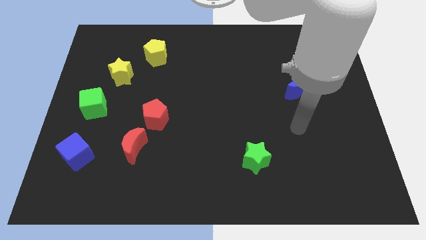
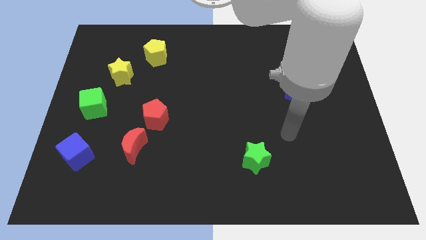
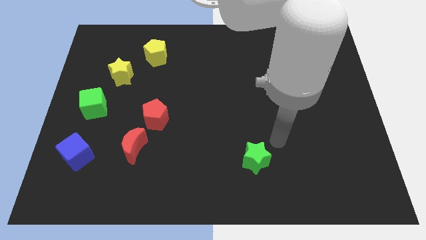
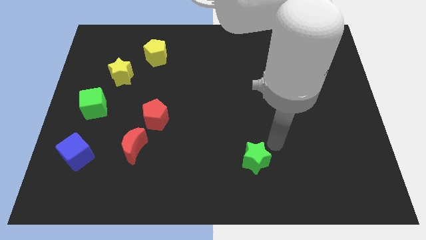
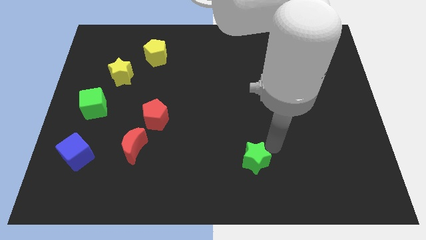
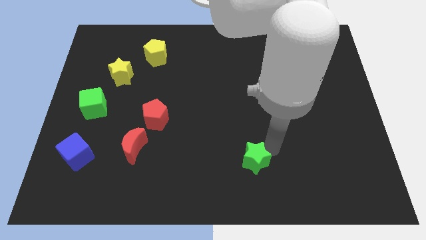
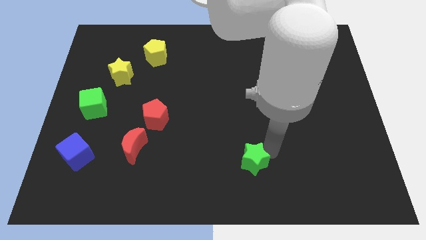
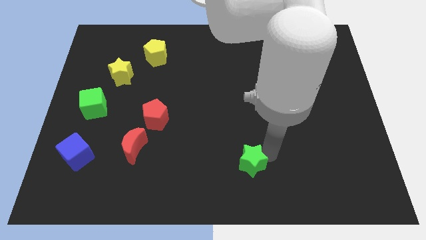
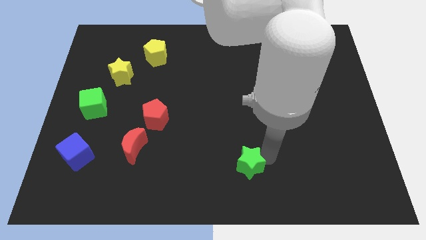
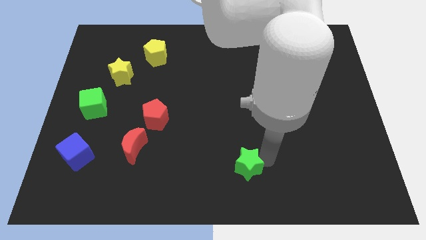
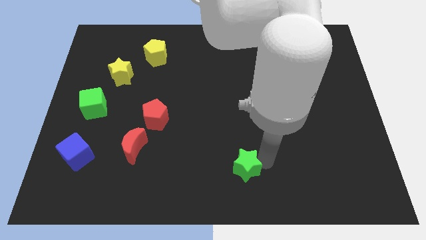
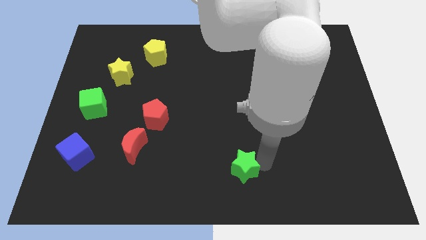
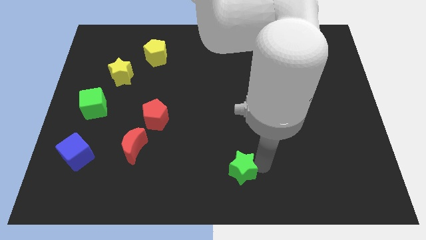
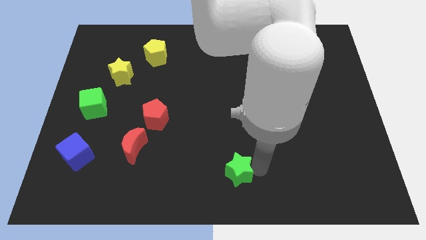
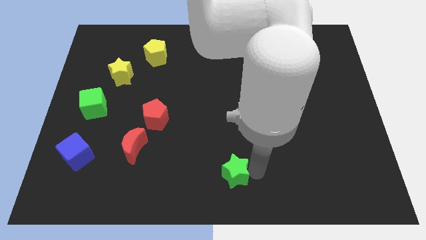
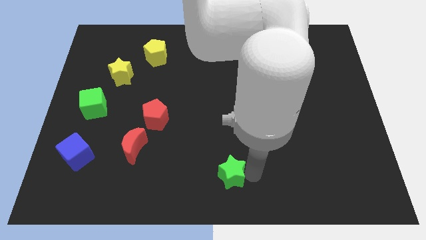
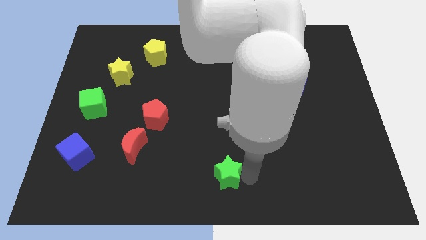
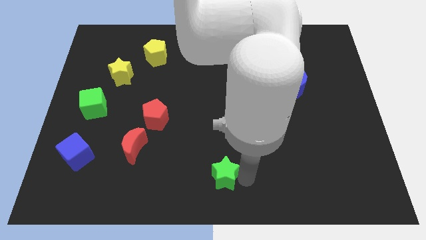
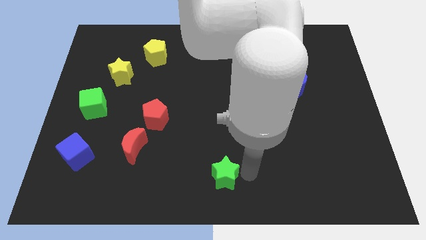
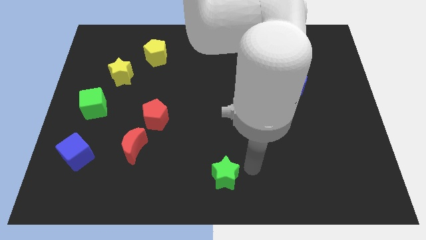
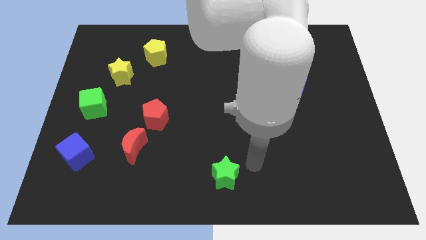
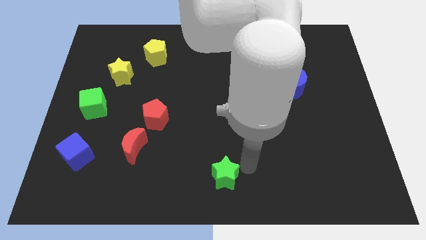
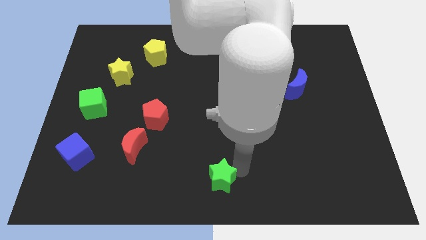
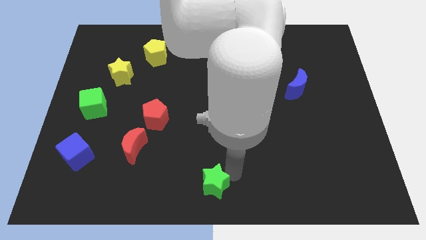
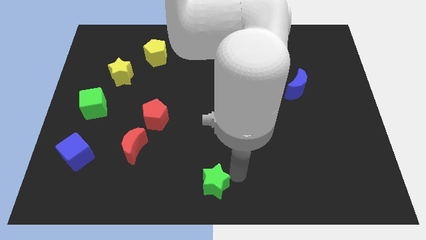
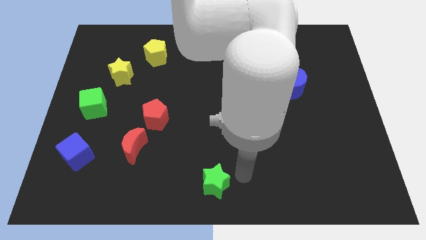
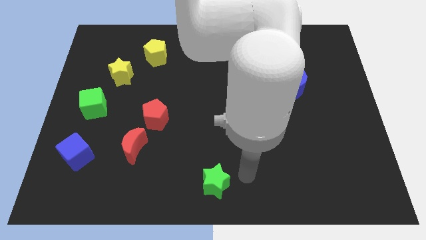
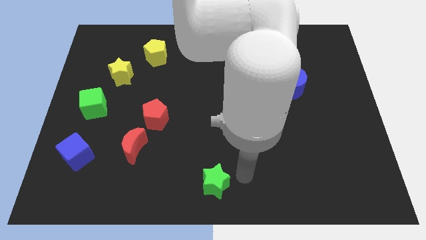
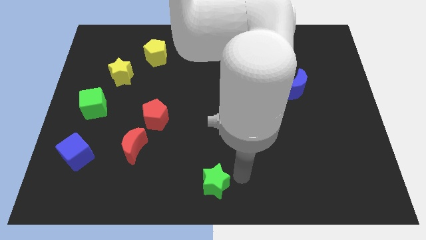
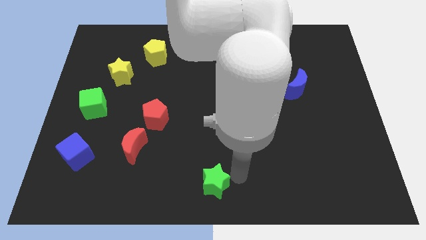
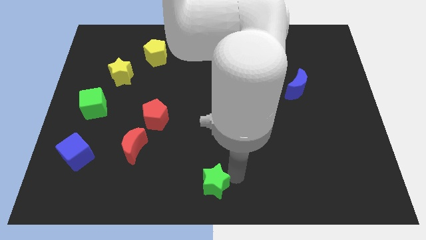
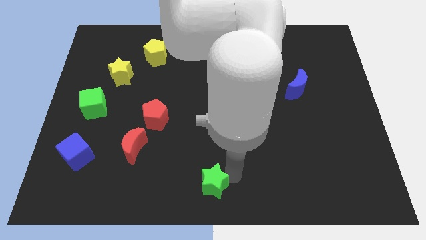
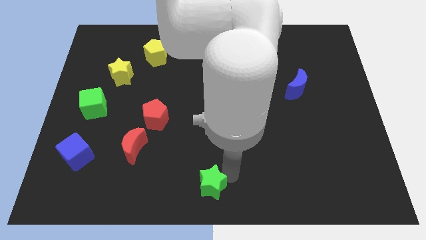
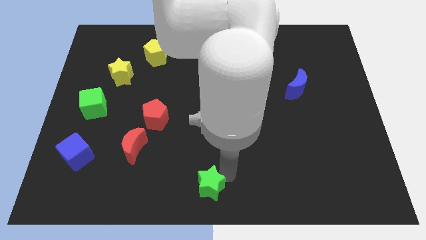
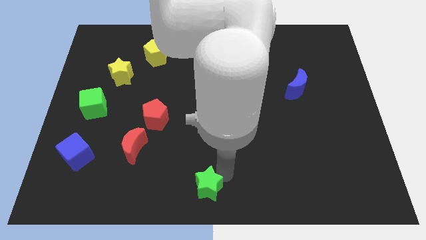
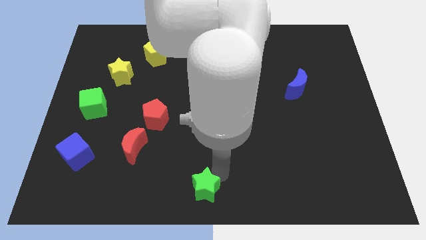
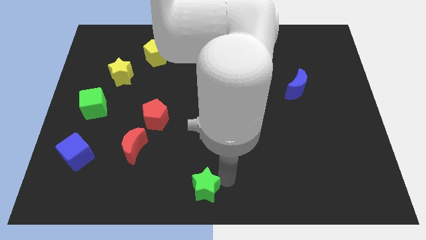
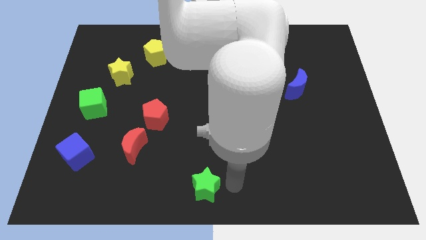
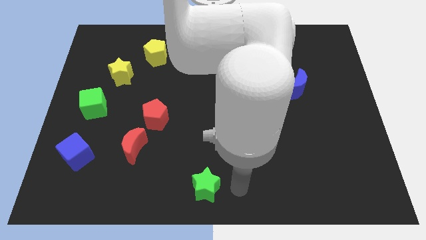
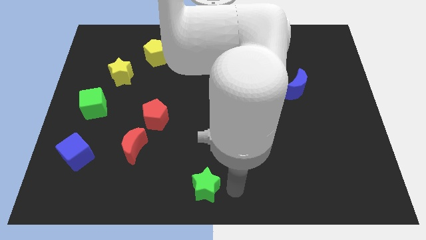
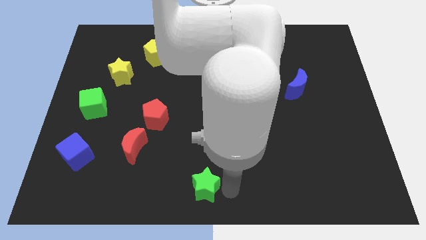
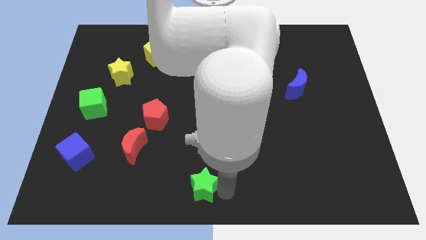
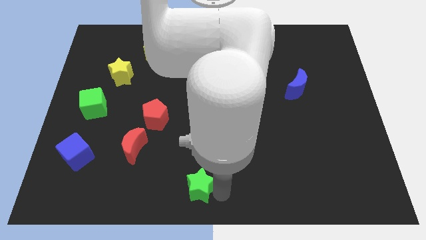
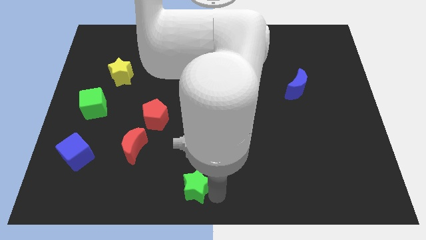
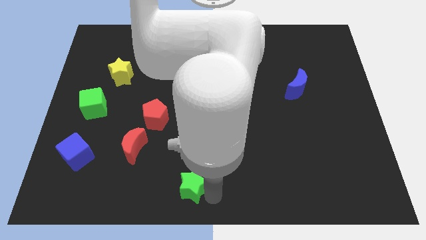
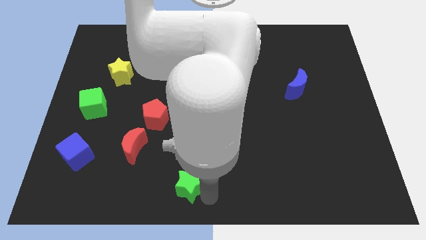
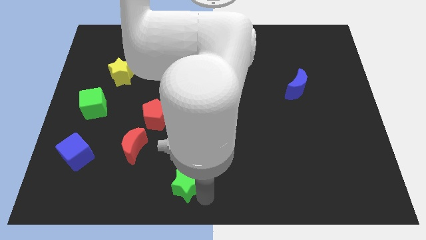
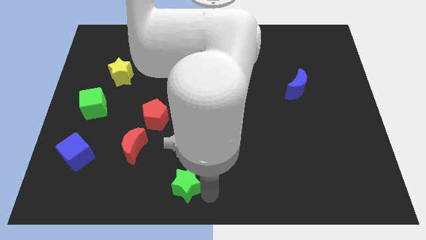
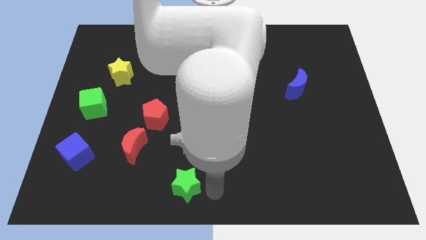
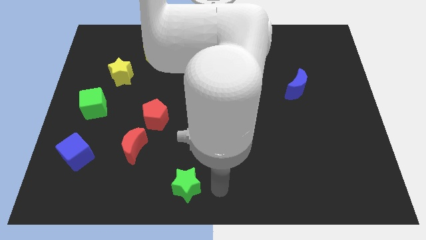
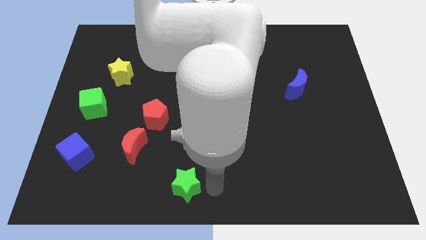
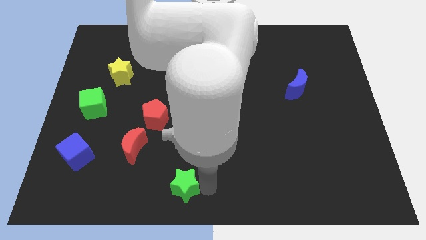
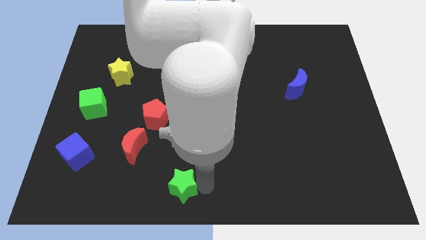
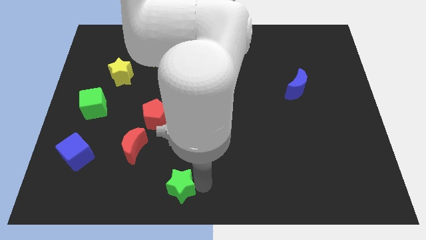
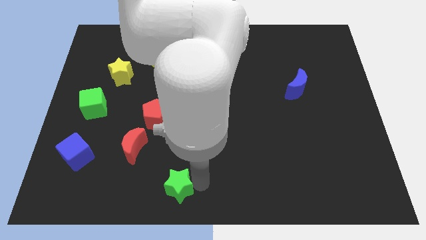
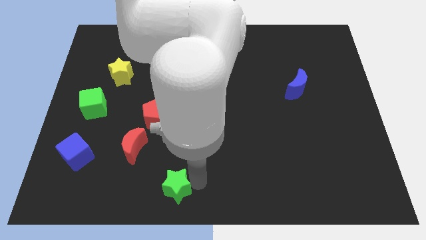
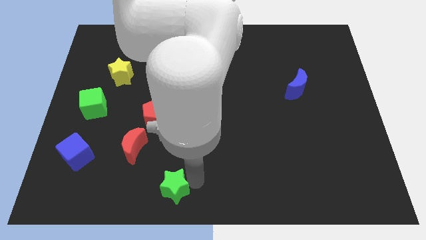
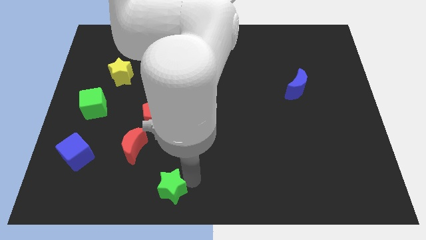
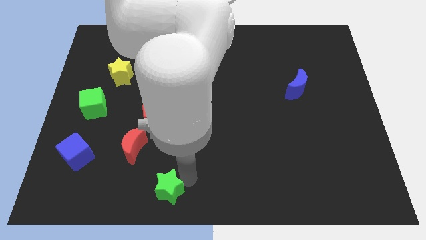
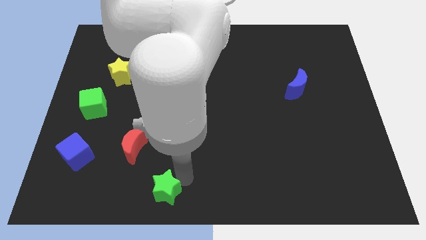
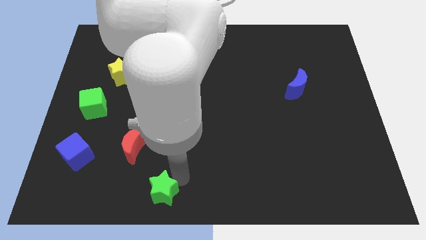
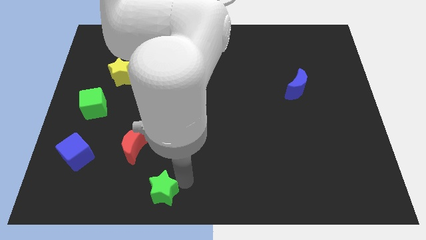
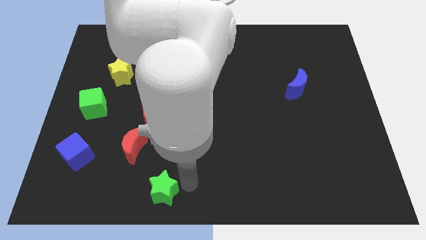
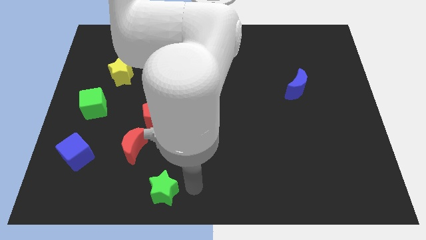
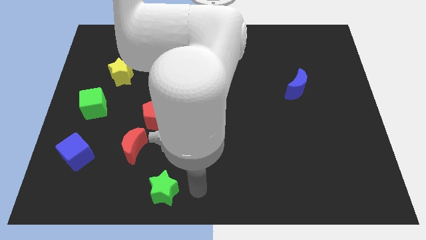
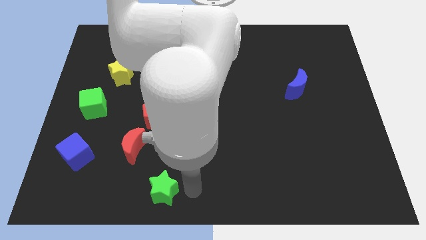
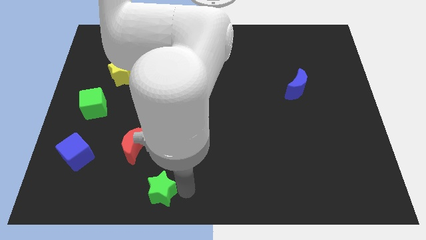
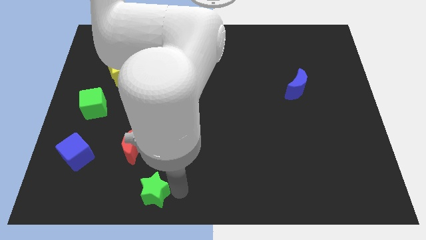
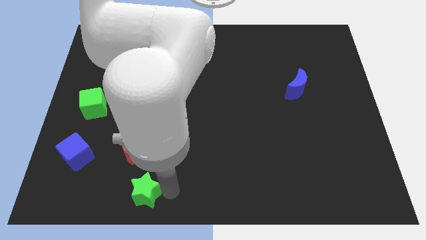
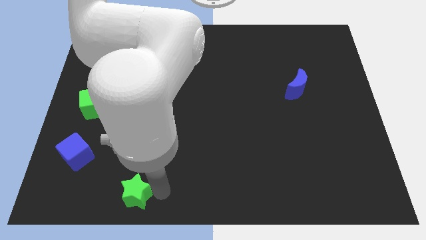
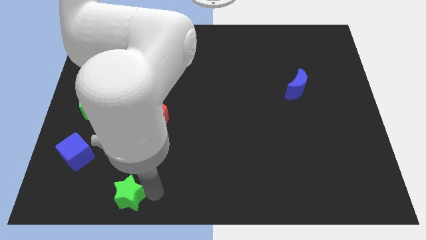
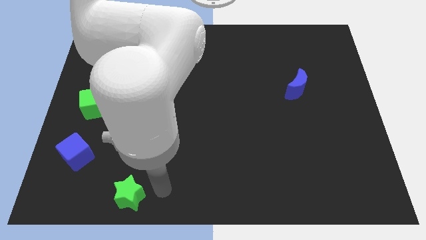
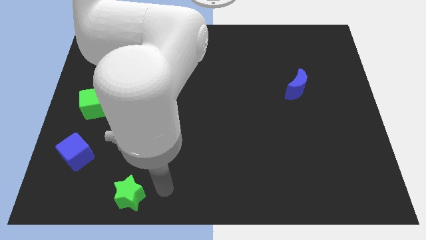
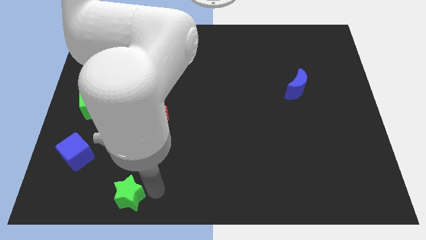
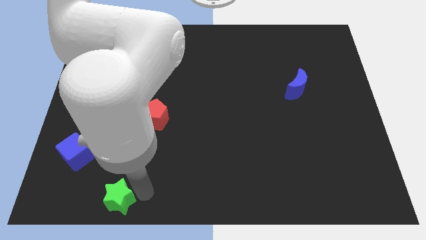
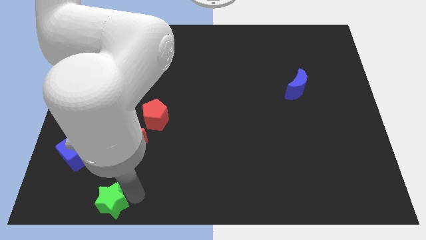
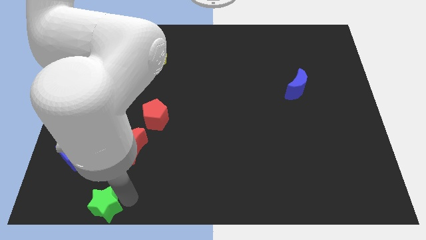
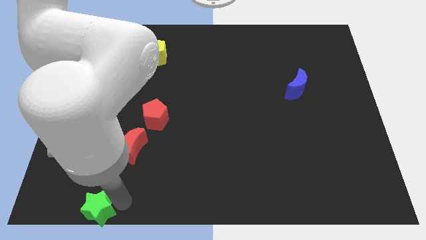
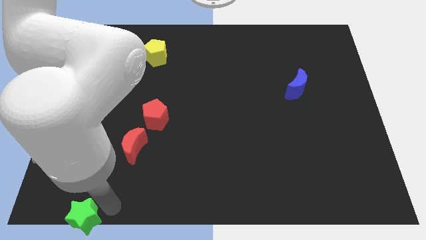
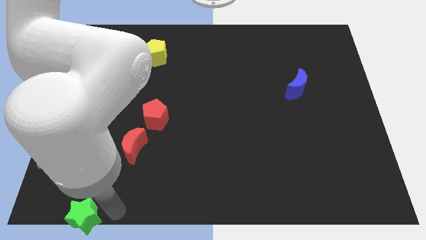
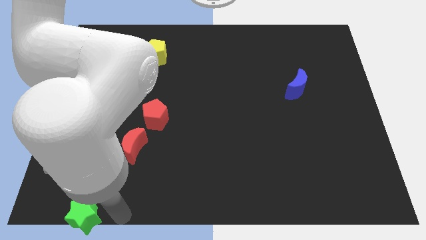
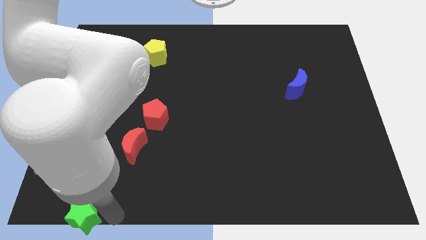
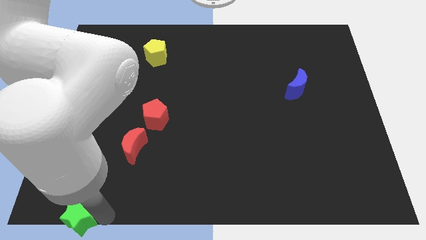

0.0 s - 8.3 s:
move the green star to the bottom left of the board
